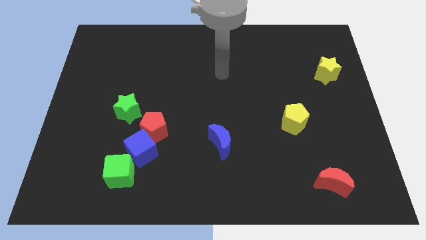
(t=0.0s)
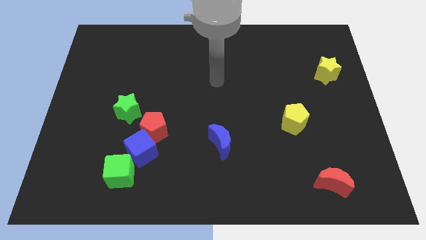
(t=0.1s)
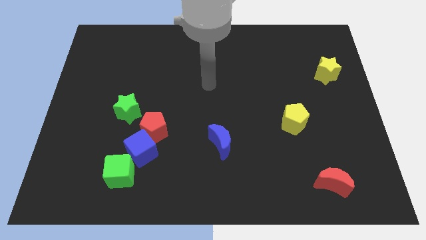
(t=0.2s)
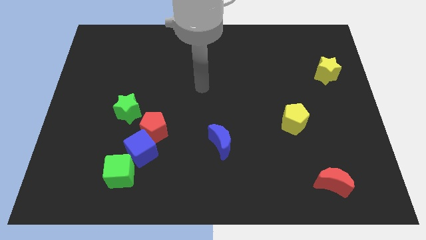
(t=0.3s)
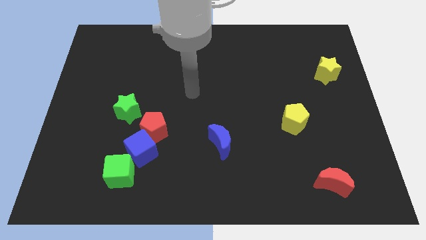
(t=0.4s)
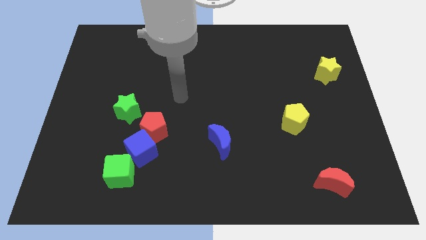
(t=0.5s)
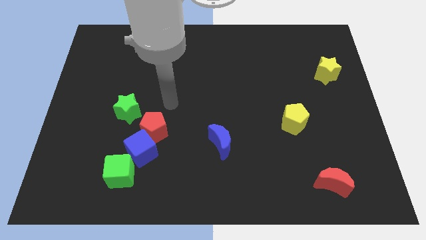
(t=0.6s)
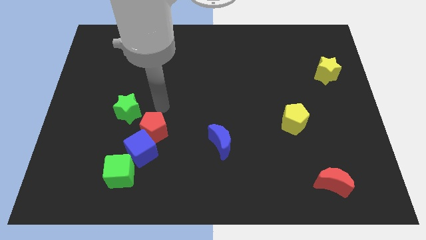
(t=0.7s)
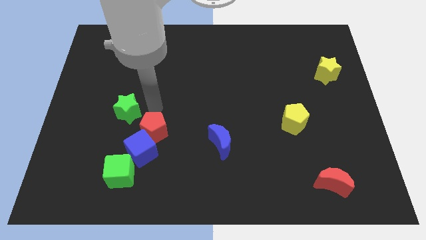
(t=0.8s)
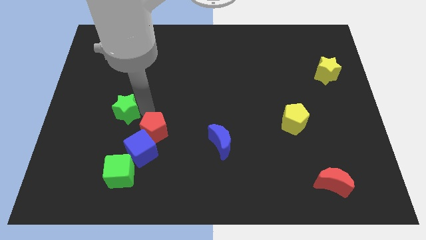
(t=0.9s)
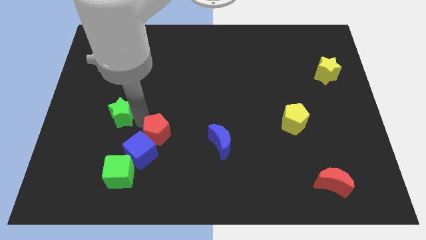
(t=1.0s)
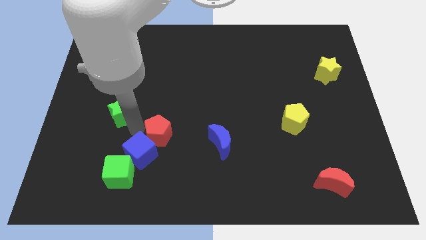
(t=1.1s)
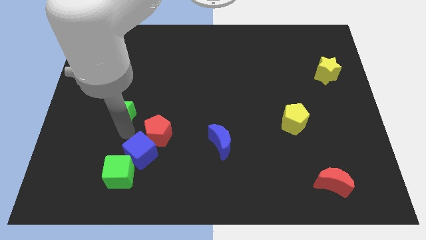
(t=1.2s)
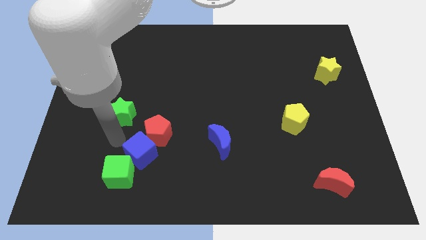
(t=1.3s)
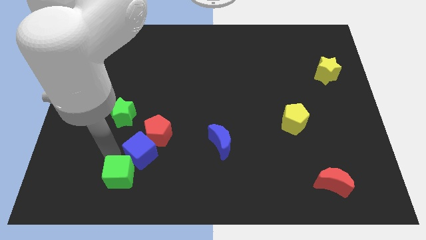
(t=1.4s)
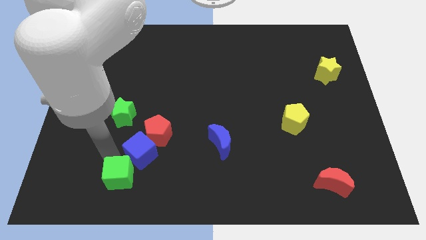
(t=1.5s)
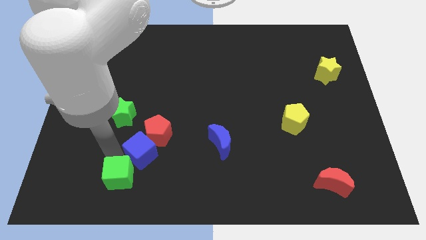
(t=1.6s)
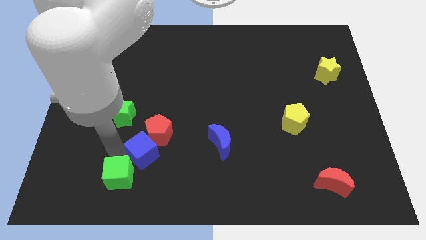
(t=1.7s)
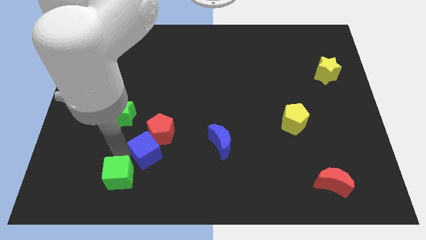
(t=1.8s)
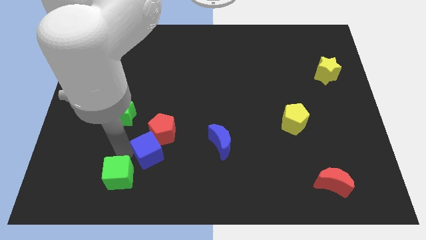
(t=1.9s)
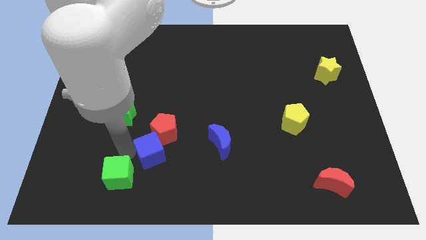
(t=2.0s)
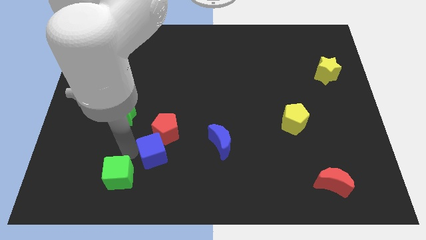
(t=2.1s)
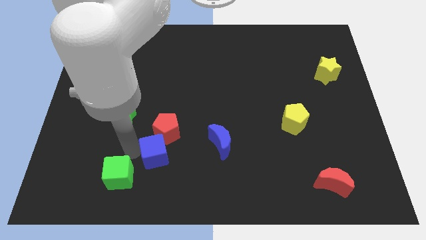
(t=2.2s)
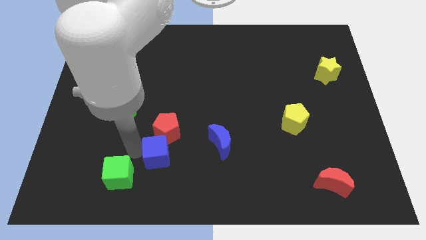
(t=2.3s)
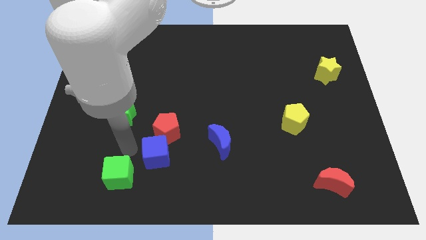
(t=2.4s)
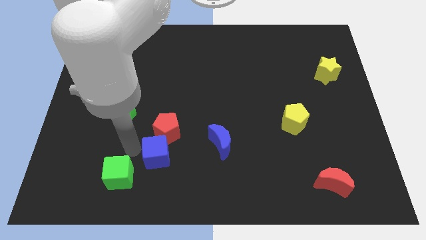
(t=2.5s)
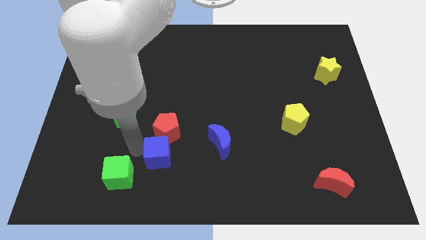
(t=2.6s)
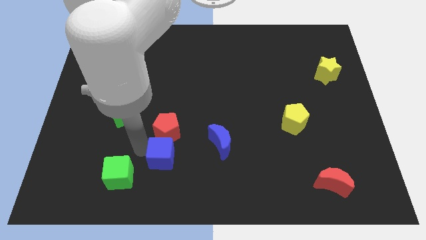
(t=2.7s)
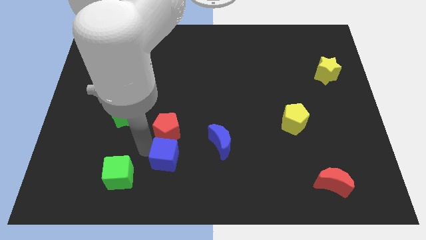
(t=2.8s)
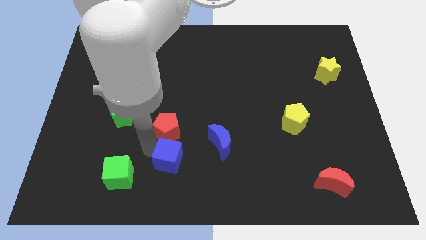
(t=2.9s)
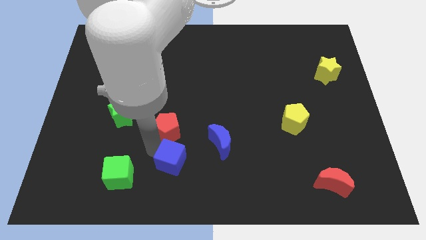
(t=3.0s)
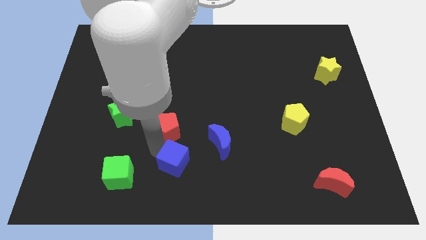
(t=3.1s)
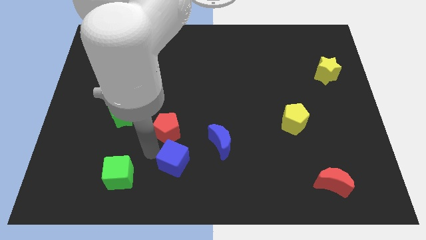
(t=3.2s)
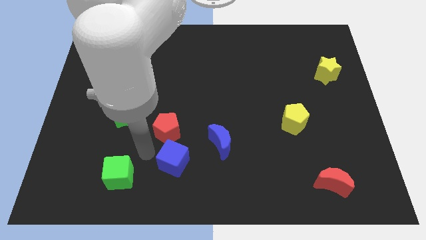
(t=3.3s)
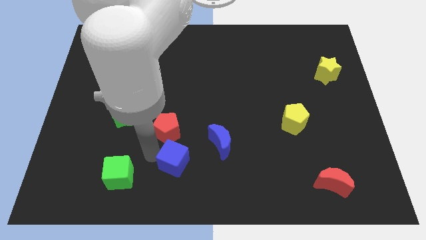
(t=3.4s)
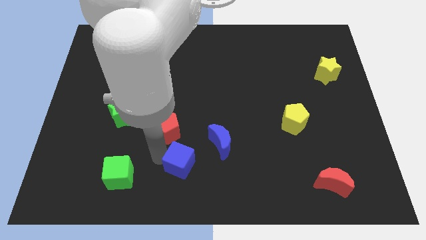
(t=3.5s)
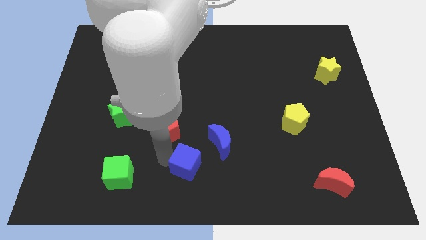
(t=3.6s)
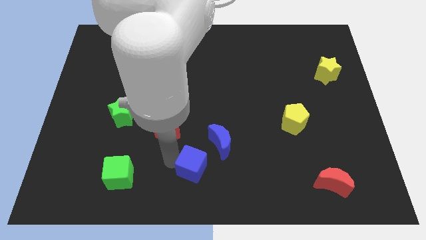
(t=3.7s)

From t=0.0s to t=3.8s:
separate the blue cube from the red pentagon and green cube

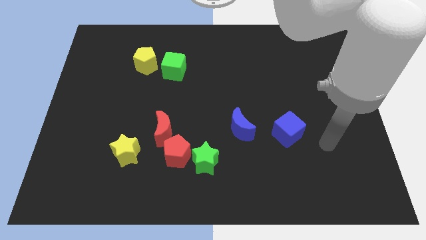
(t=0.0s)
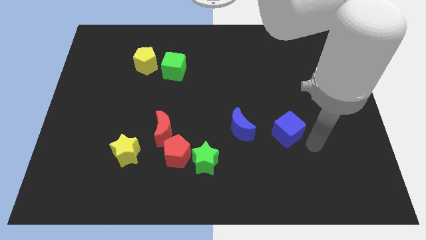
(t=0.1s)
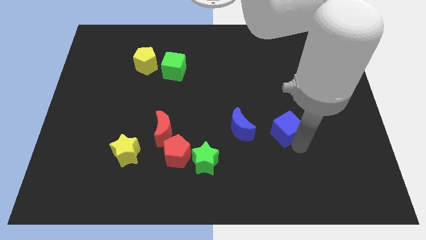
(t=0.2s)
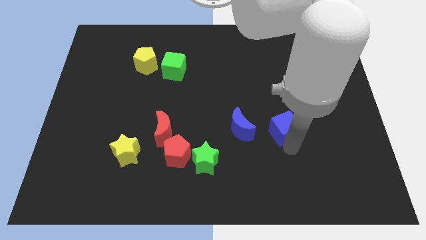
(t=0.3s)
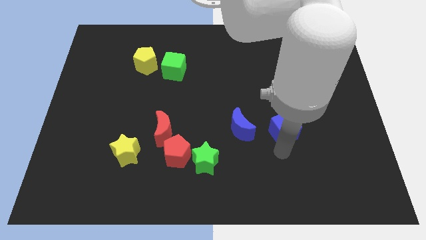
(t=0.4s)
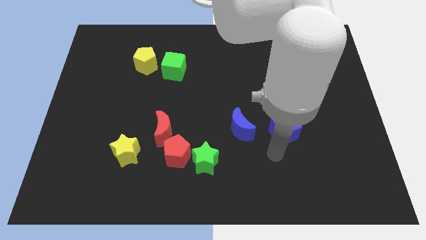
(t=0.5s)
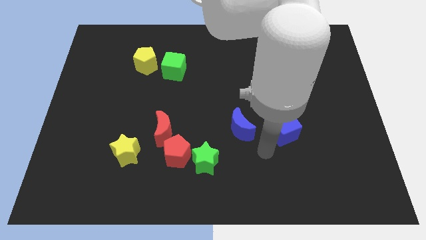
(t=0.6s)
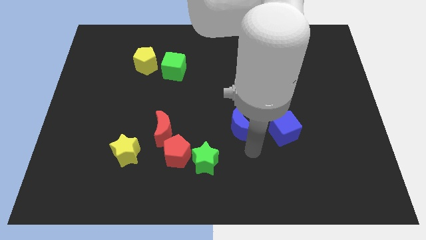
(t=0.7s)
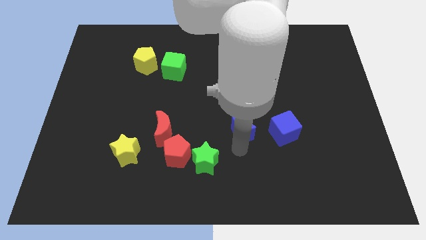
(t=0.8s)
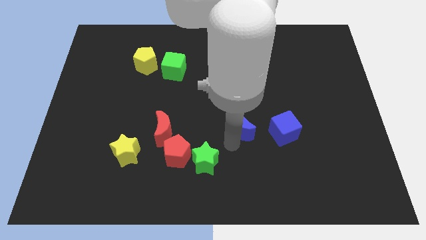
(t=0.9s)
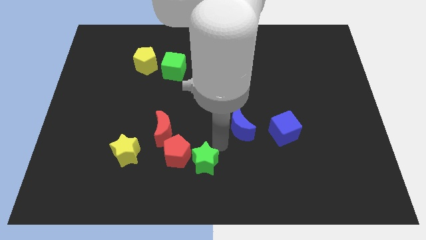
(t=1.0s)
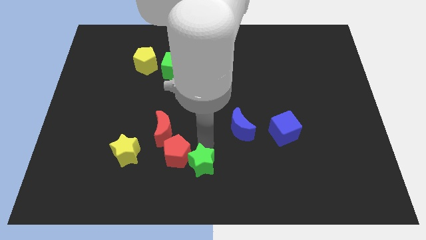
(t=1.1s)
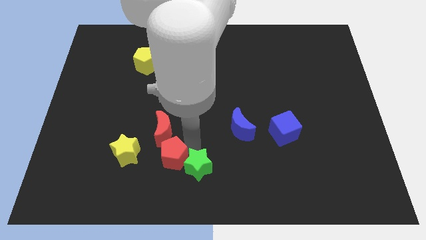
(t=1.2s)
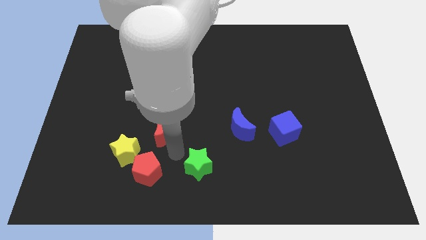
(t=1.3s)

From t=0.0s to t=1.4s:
pull the green star apart from the red pentagon

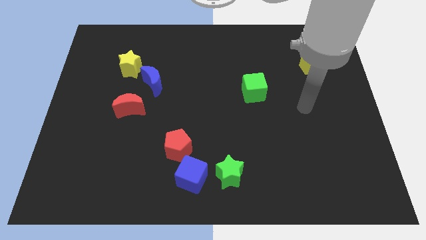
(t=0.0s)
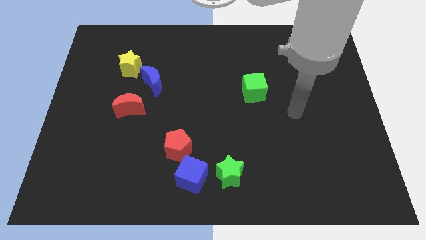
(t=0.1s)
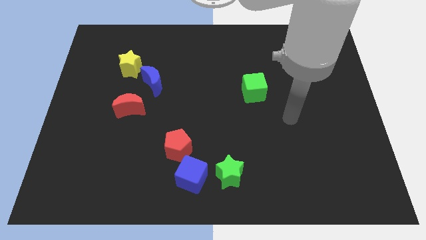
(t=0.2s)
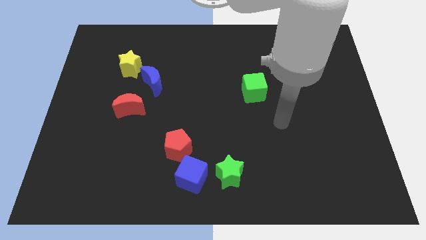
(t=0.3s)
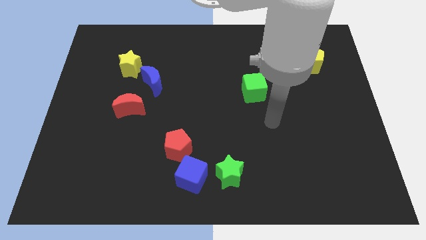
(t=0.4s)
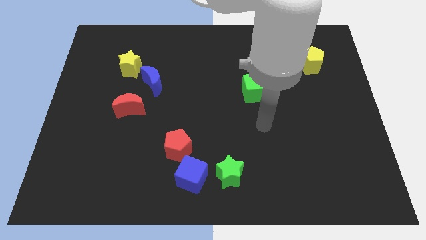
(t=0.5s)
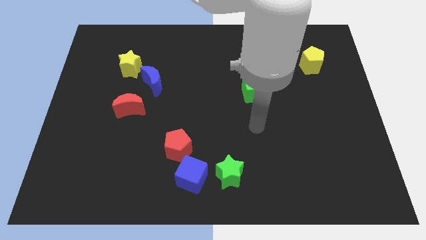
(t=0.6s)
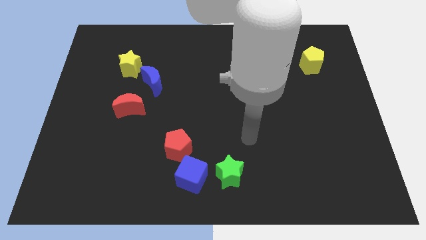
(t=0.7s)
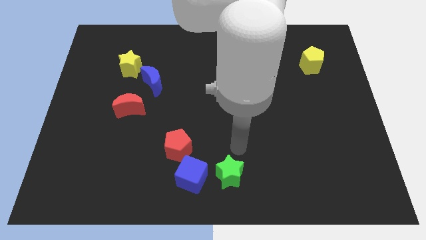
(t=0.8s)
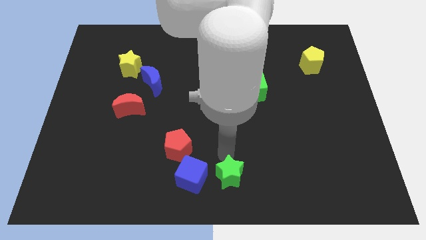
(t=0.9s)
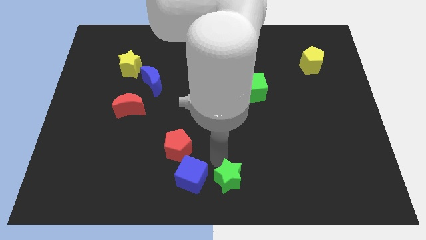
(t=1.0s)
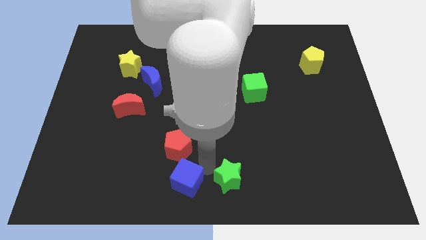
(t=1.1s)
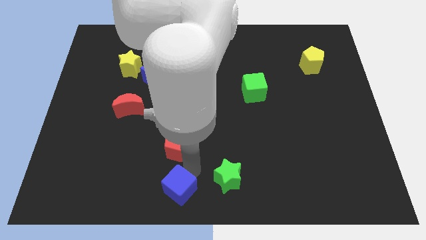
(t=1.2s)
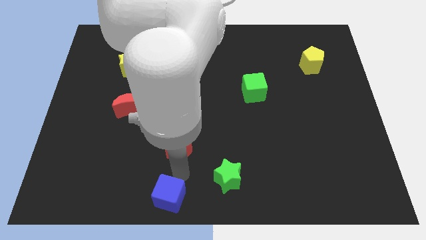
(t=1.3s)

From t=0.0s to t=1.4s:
separate the red pentagon from the blue cube

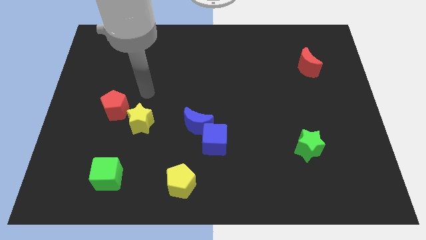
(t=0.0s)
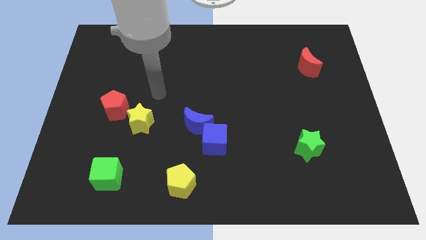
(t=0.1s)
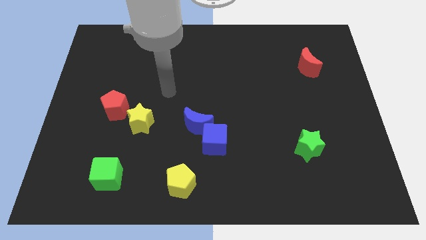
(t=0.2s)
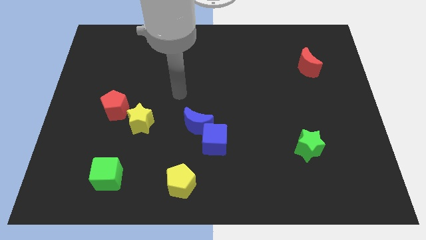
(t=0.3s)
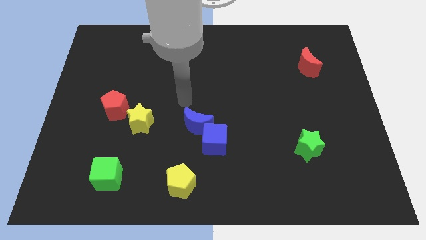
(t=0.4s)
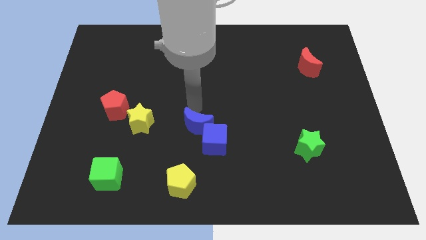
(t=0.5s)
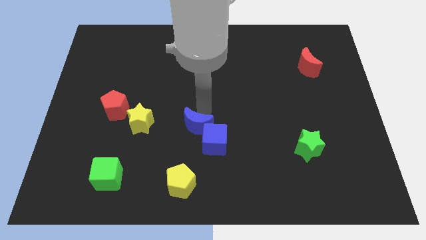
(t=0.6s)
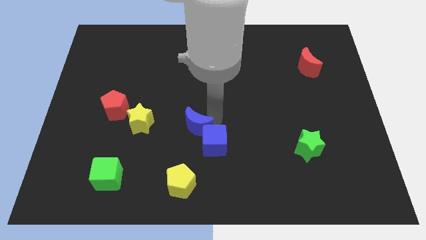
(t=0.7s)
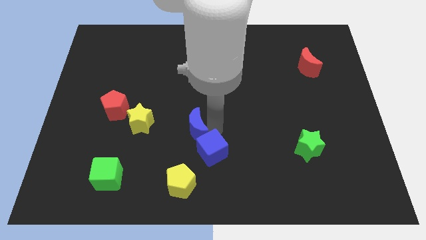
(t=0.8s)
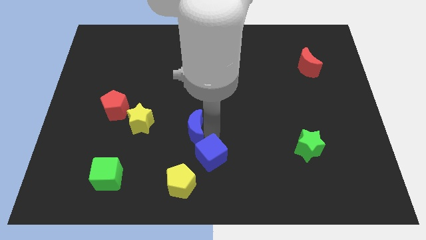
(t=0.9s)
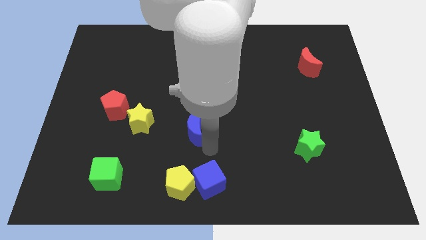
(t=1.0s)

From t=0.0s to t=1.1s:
move the blue moon away from the blue cube

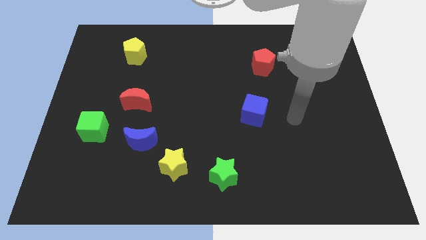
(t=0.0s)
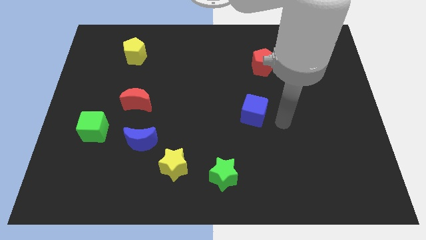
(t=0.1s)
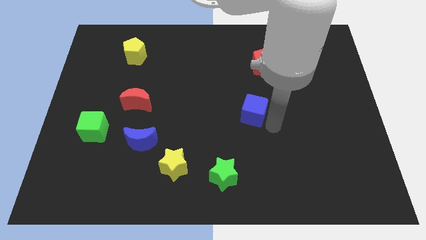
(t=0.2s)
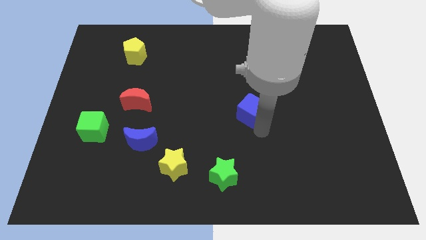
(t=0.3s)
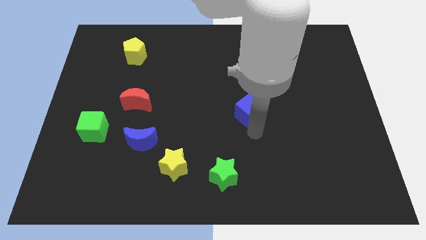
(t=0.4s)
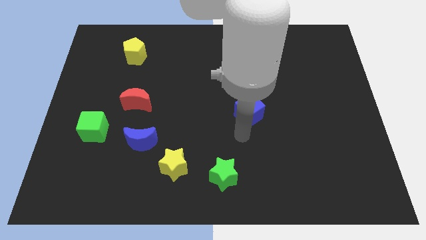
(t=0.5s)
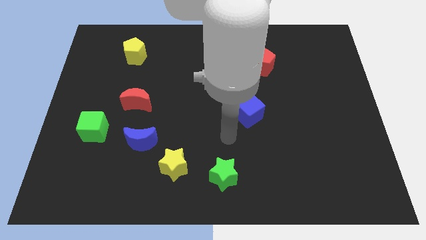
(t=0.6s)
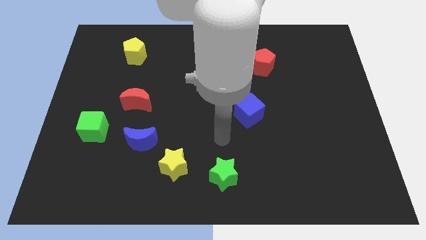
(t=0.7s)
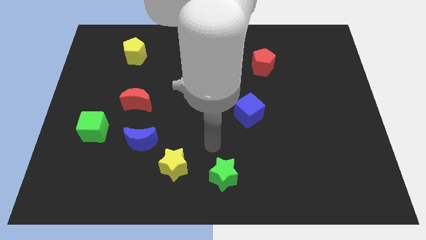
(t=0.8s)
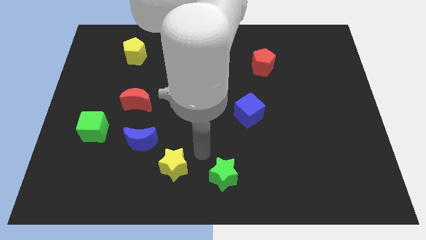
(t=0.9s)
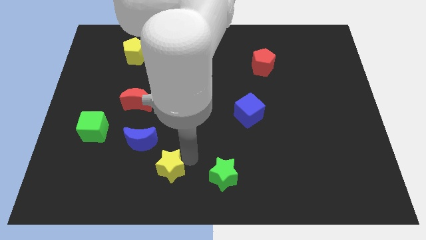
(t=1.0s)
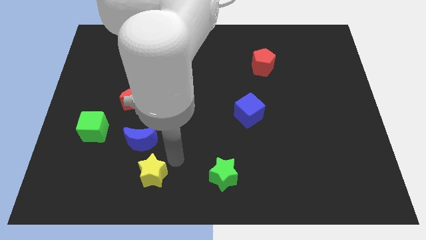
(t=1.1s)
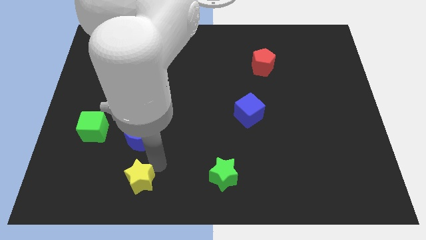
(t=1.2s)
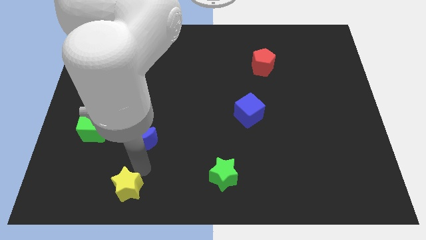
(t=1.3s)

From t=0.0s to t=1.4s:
pull the blue moon apart from the yellow star
